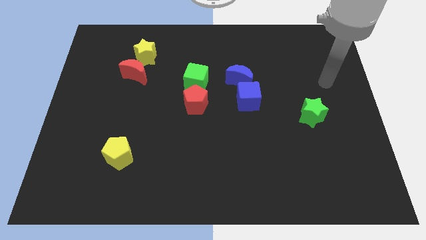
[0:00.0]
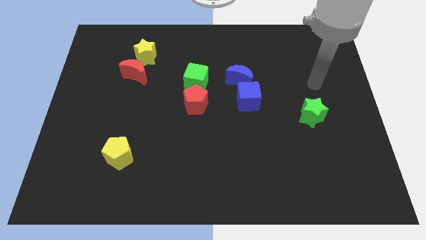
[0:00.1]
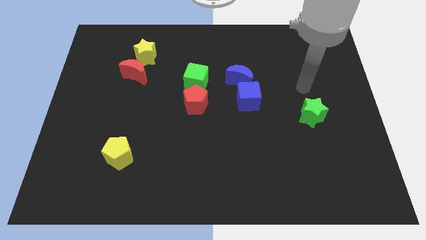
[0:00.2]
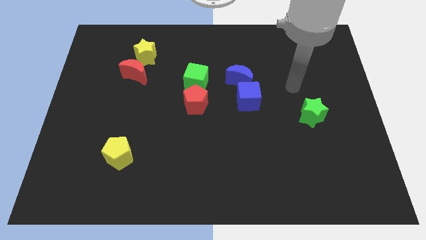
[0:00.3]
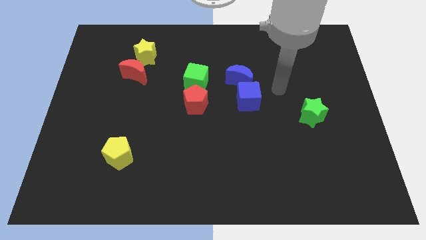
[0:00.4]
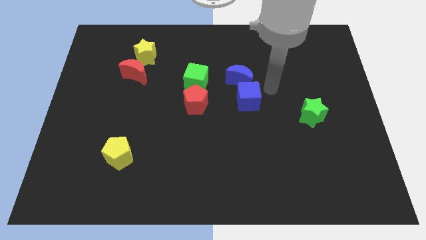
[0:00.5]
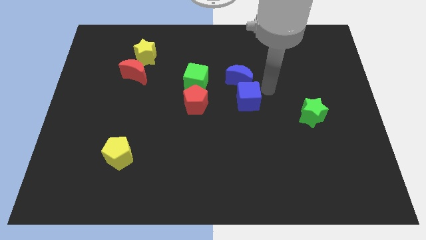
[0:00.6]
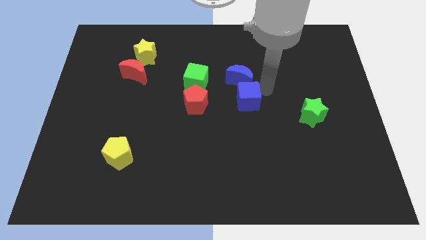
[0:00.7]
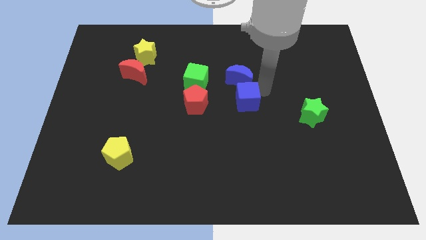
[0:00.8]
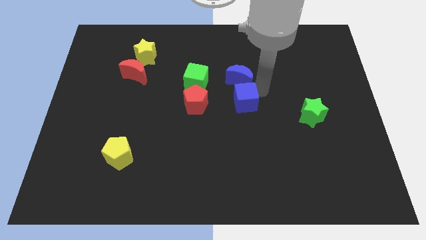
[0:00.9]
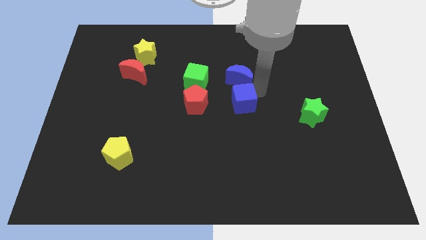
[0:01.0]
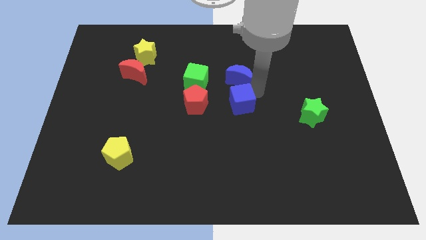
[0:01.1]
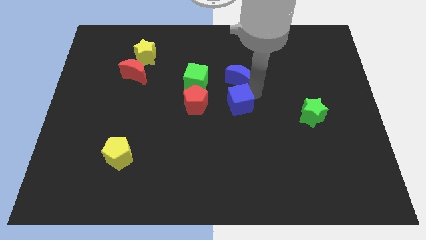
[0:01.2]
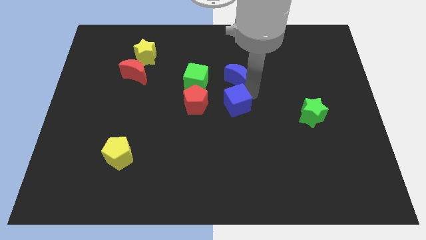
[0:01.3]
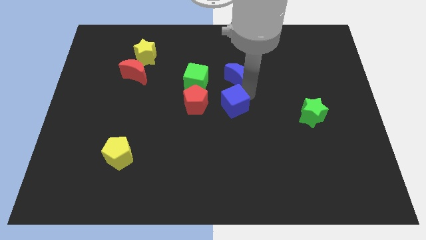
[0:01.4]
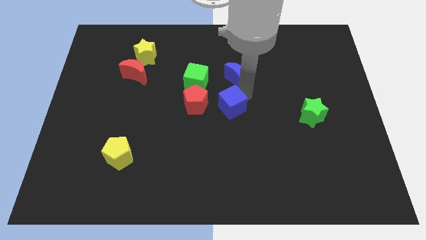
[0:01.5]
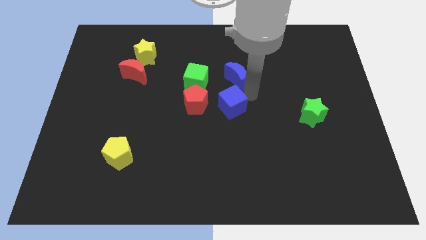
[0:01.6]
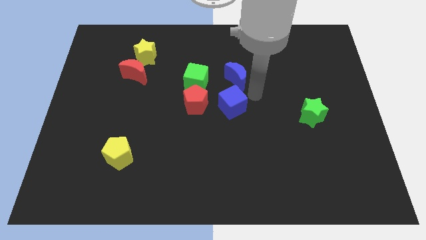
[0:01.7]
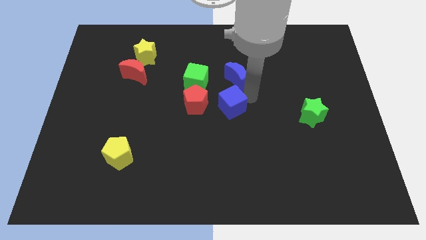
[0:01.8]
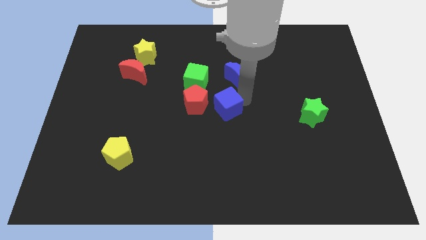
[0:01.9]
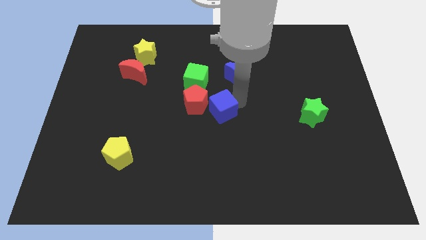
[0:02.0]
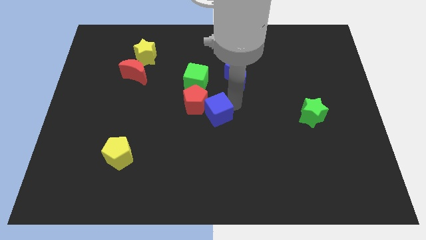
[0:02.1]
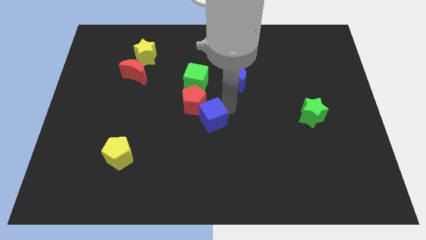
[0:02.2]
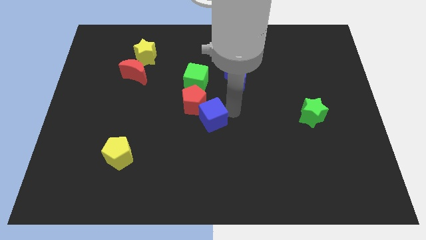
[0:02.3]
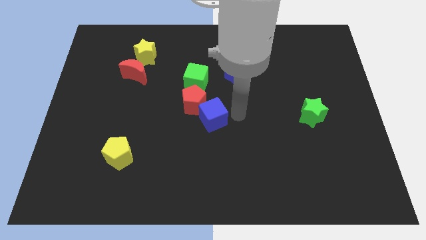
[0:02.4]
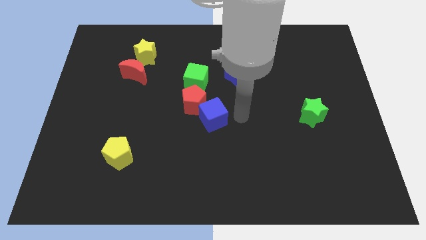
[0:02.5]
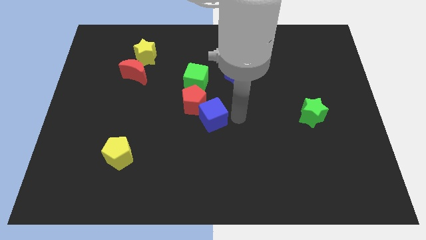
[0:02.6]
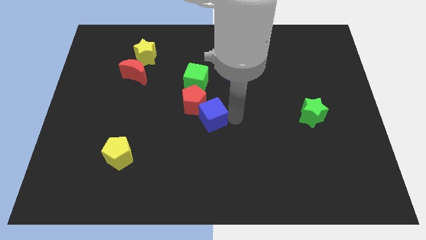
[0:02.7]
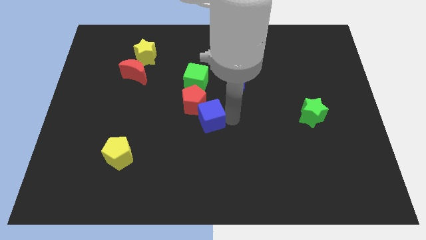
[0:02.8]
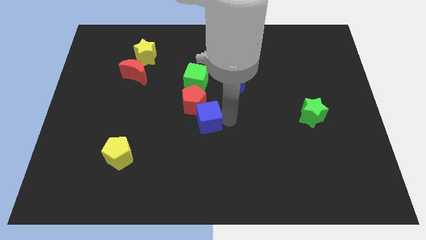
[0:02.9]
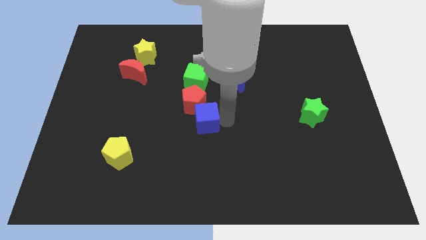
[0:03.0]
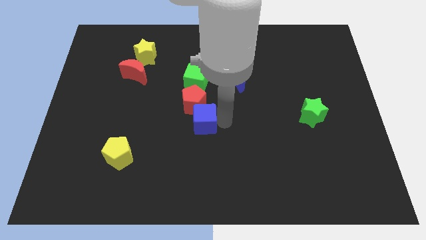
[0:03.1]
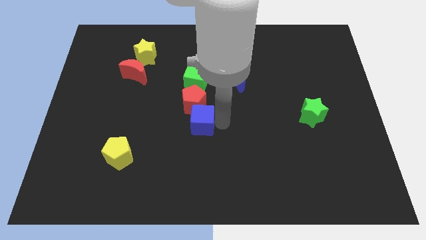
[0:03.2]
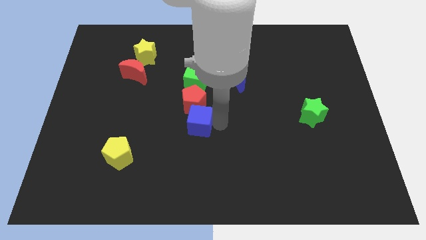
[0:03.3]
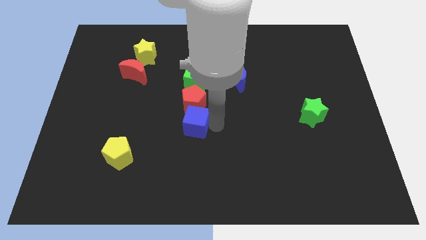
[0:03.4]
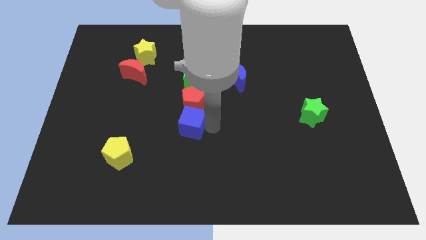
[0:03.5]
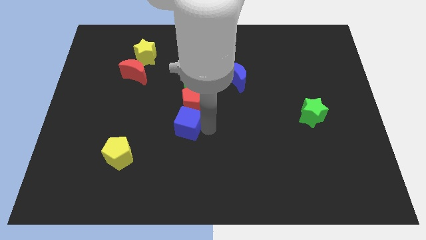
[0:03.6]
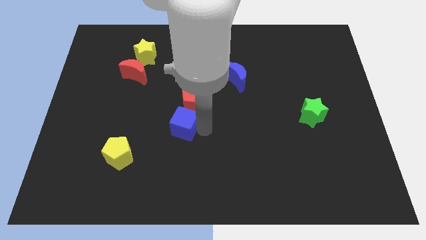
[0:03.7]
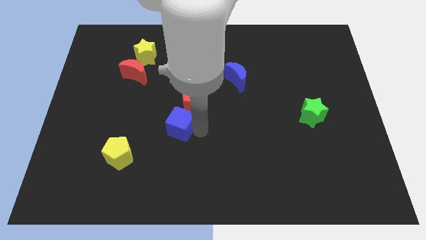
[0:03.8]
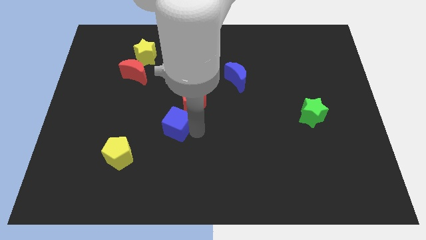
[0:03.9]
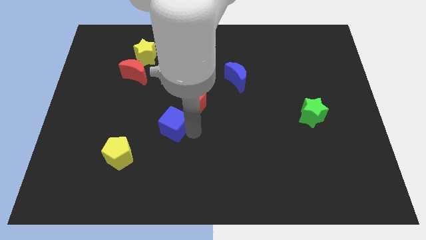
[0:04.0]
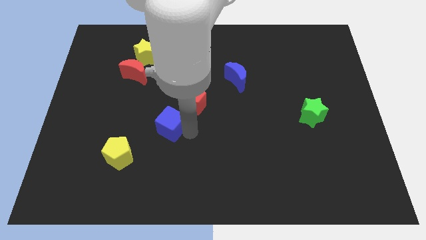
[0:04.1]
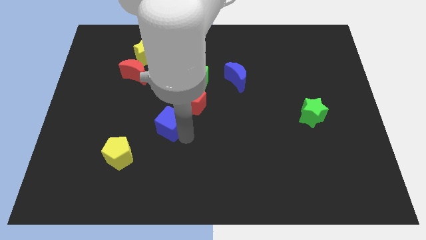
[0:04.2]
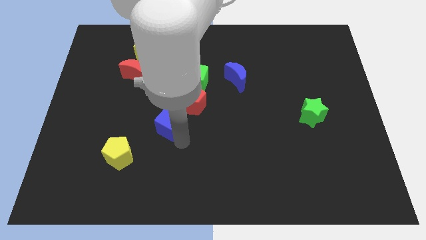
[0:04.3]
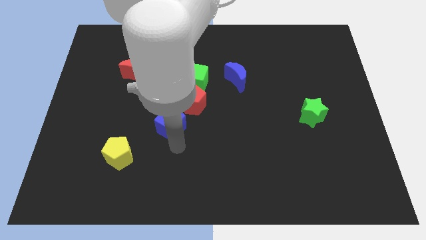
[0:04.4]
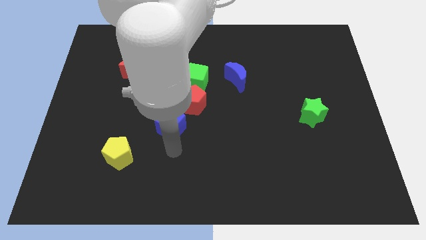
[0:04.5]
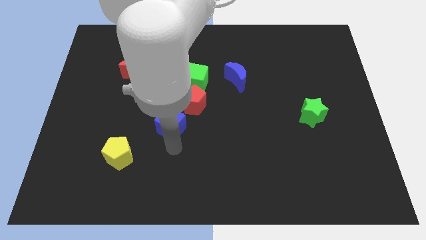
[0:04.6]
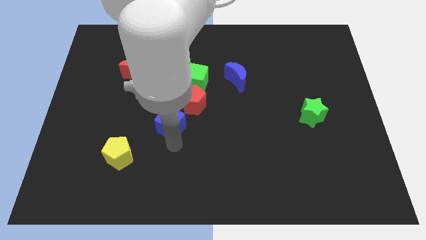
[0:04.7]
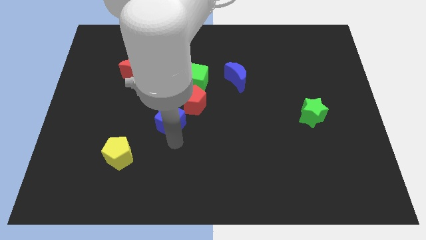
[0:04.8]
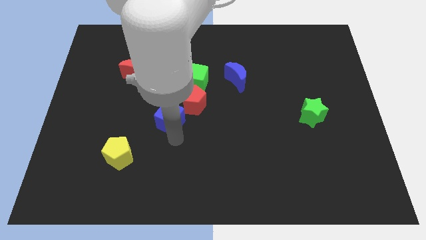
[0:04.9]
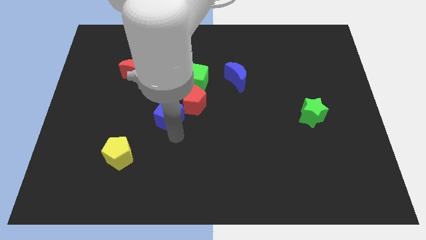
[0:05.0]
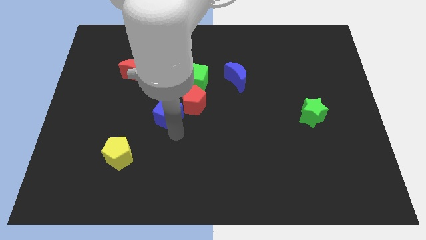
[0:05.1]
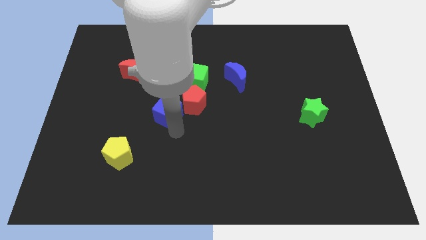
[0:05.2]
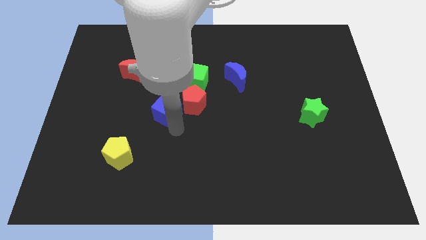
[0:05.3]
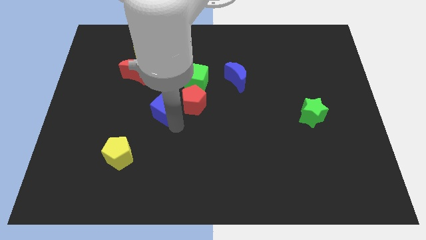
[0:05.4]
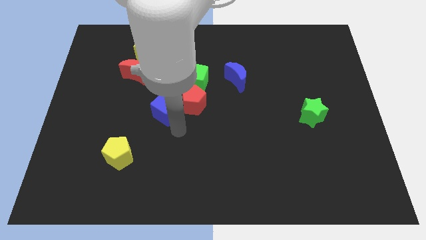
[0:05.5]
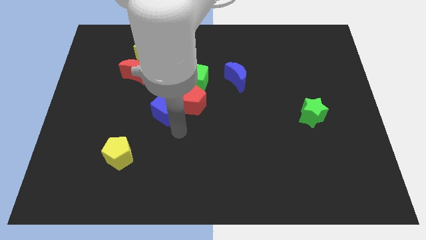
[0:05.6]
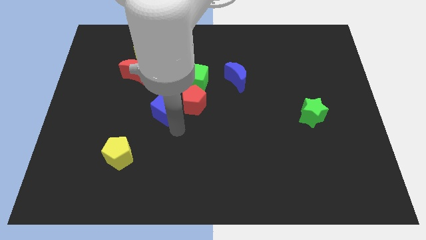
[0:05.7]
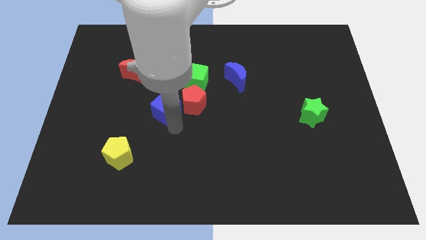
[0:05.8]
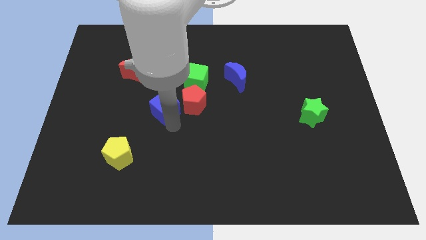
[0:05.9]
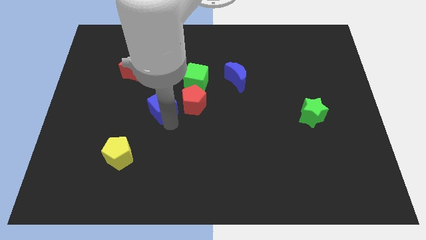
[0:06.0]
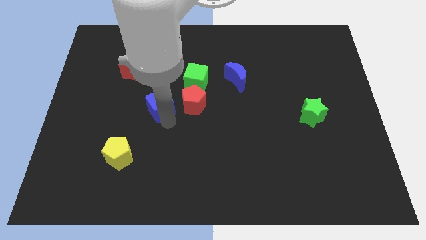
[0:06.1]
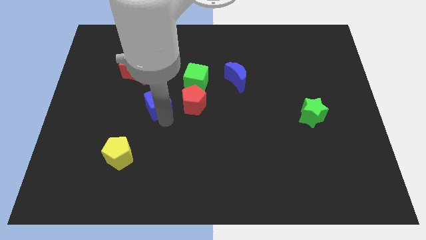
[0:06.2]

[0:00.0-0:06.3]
move the blue cube to the bottom right side of the red moon

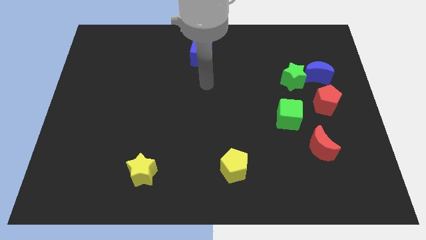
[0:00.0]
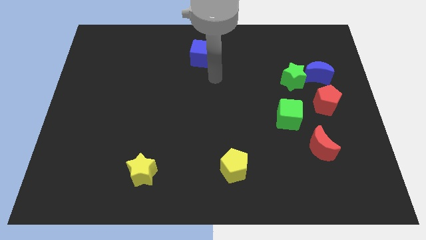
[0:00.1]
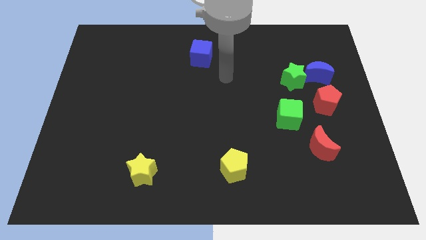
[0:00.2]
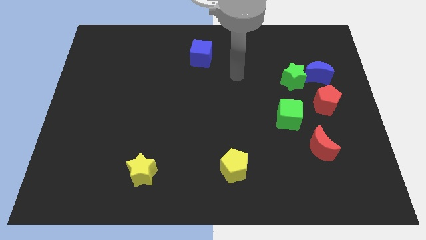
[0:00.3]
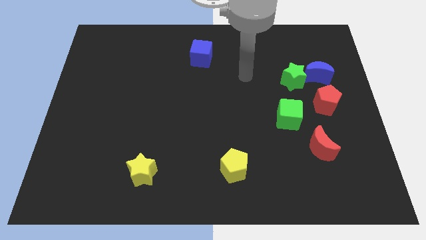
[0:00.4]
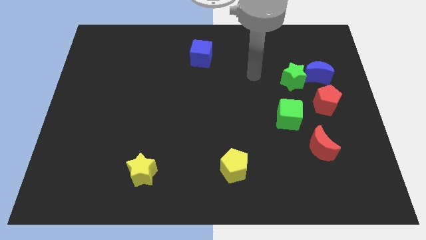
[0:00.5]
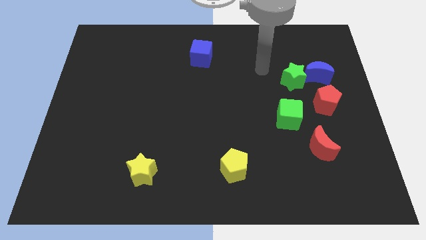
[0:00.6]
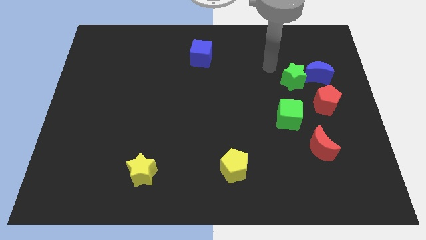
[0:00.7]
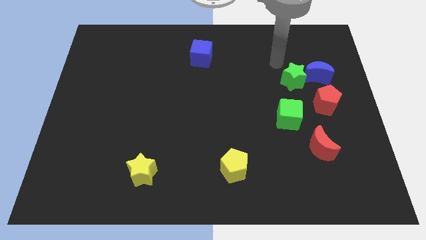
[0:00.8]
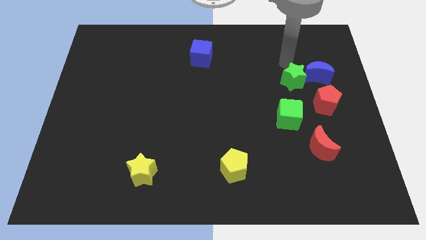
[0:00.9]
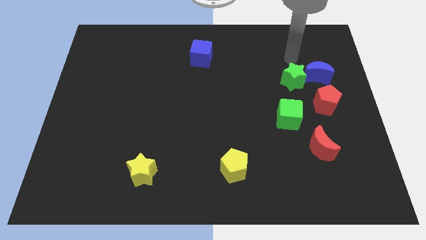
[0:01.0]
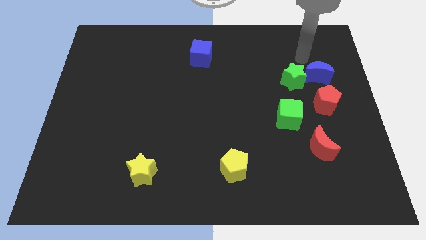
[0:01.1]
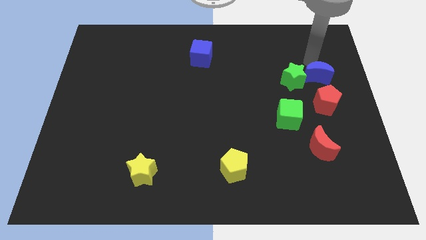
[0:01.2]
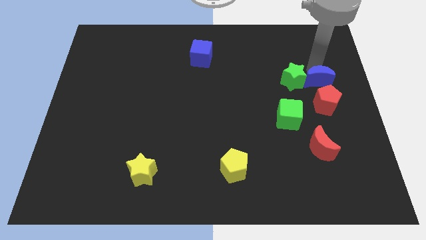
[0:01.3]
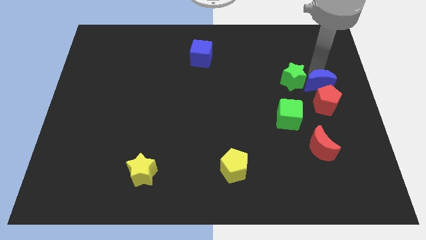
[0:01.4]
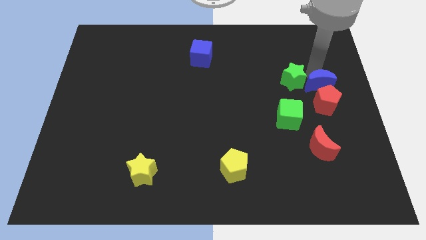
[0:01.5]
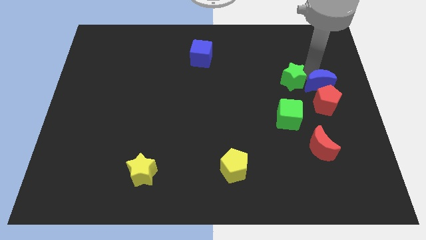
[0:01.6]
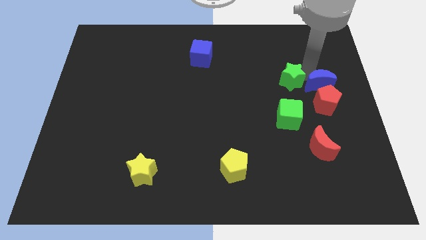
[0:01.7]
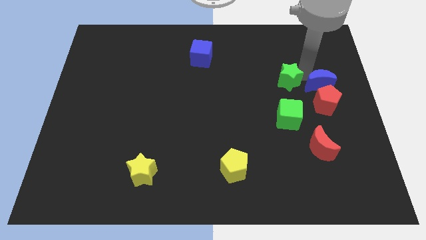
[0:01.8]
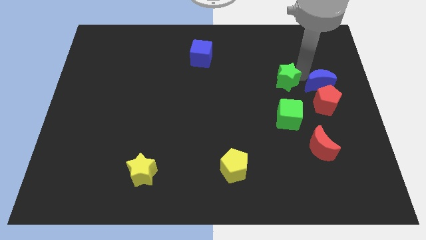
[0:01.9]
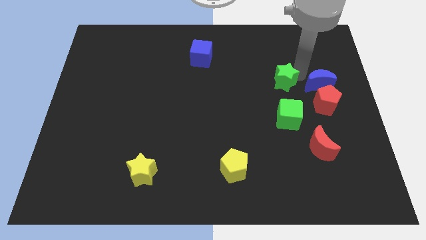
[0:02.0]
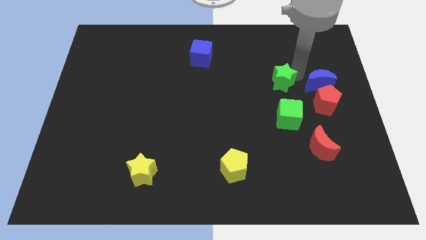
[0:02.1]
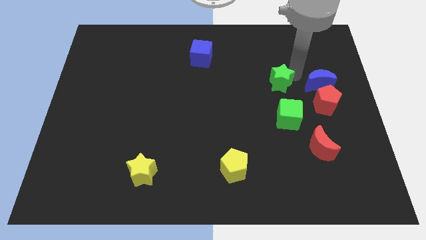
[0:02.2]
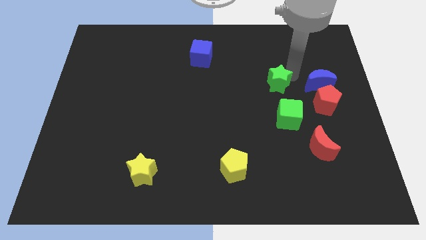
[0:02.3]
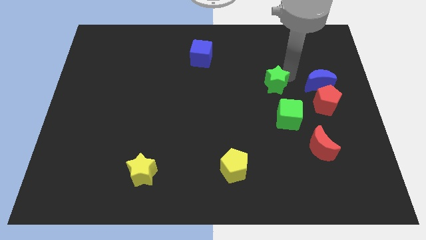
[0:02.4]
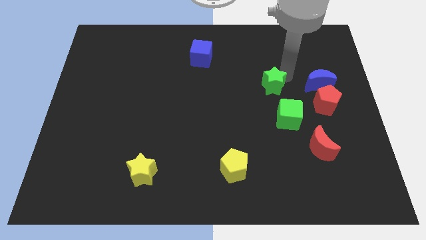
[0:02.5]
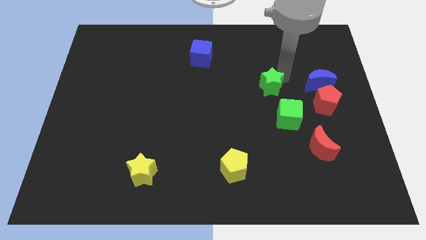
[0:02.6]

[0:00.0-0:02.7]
move the green star to the top left side of the green cube
